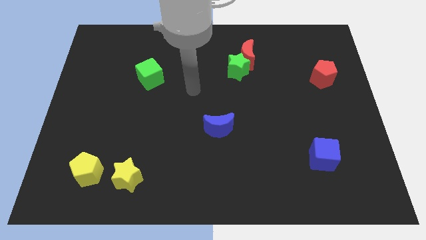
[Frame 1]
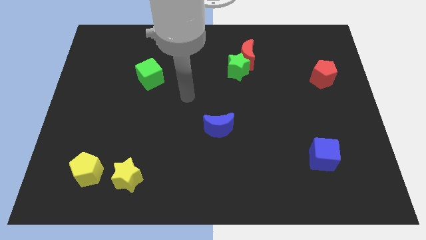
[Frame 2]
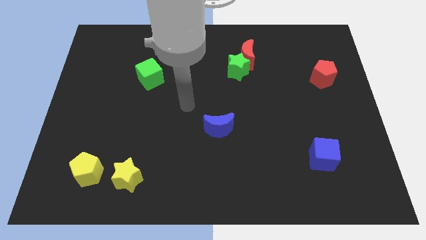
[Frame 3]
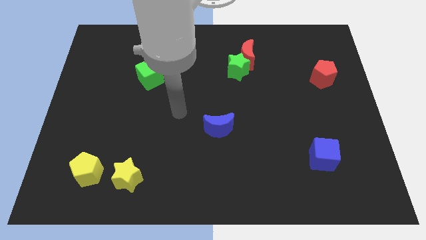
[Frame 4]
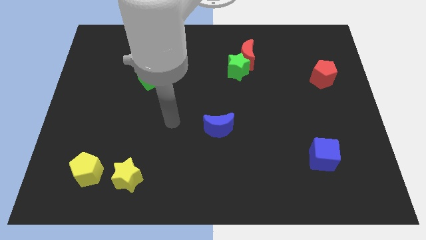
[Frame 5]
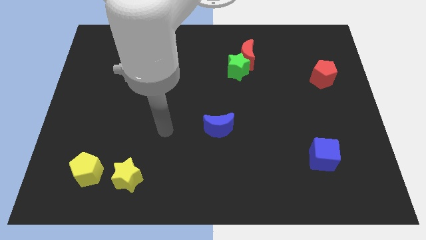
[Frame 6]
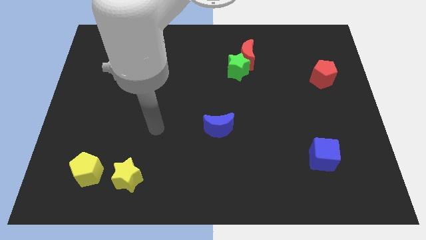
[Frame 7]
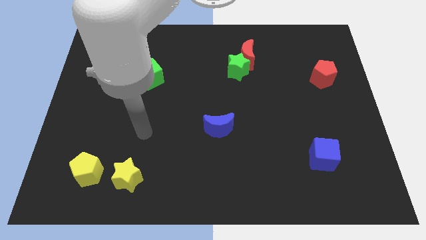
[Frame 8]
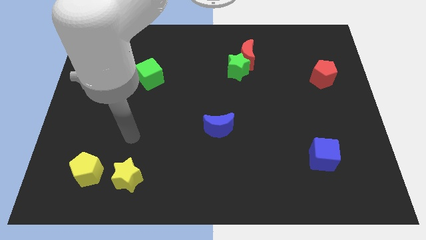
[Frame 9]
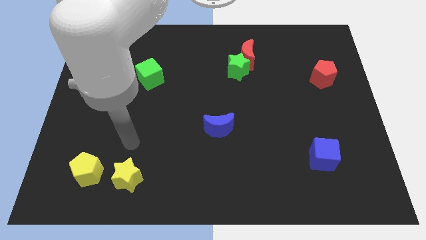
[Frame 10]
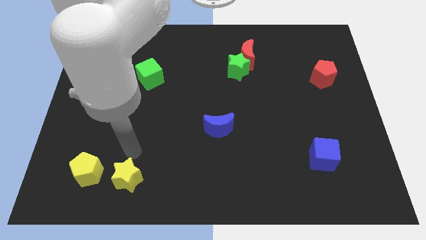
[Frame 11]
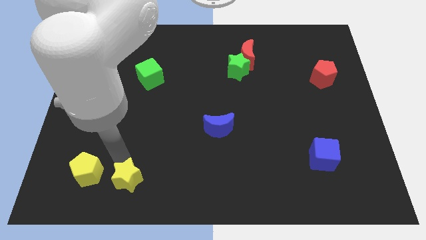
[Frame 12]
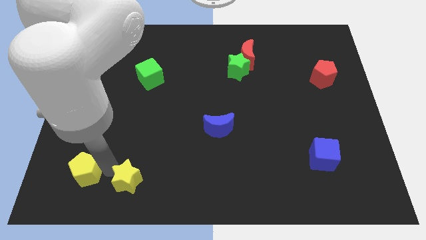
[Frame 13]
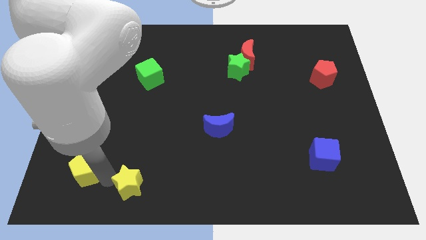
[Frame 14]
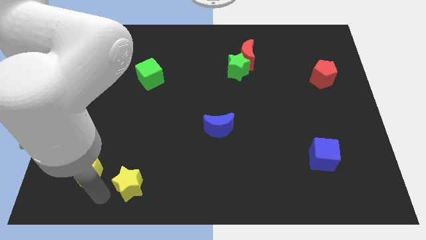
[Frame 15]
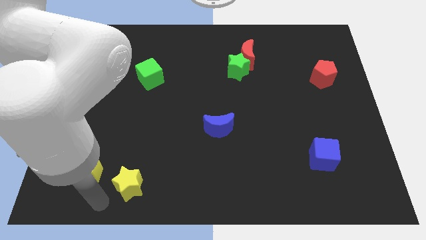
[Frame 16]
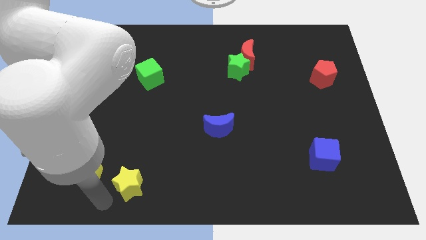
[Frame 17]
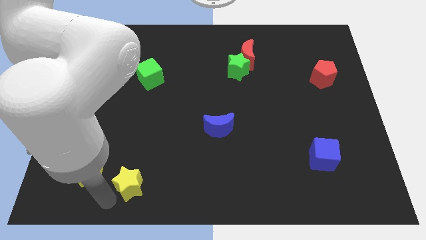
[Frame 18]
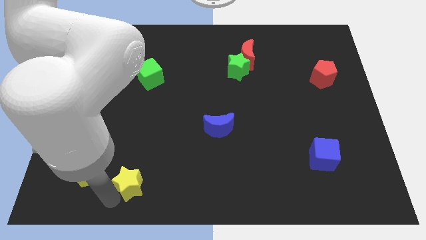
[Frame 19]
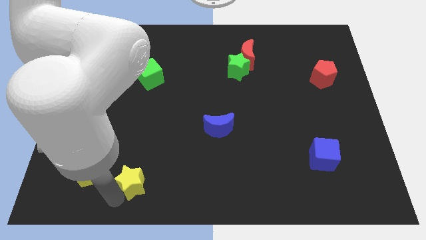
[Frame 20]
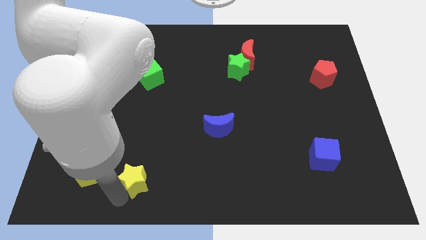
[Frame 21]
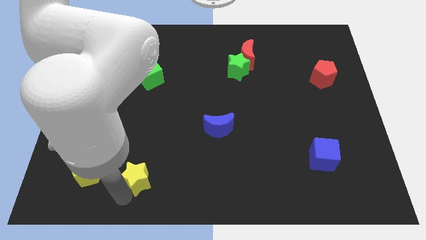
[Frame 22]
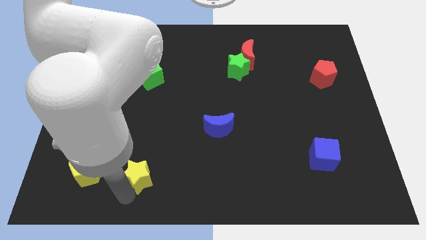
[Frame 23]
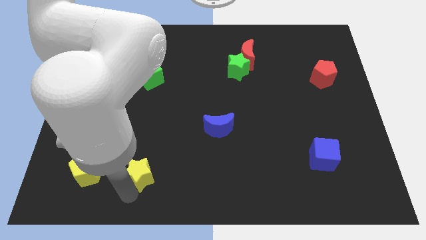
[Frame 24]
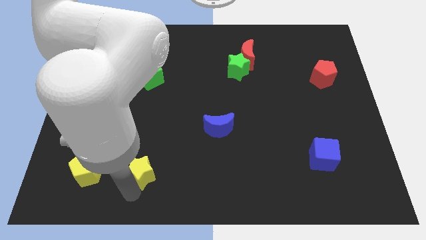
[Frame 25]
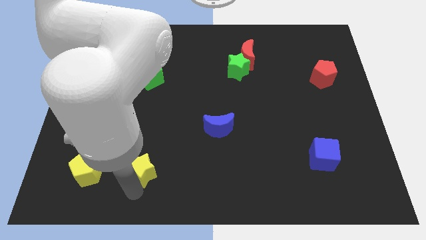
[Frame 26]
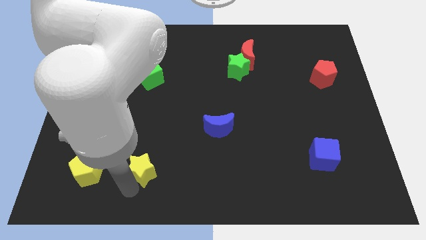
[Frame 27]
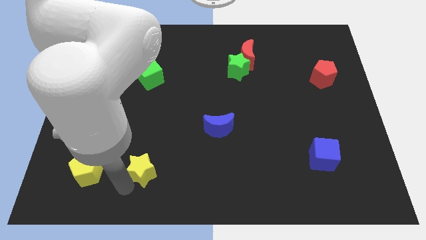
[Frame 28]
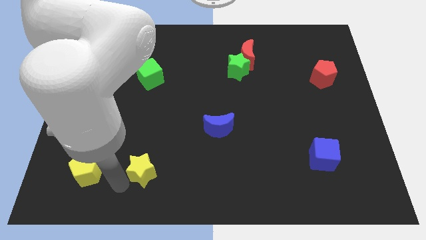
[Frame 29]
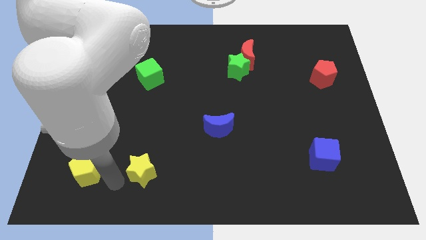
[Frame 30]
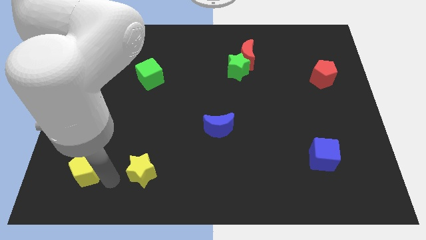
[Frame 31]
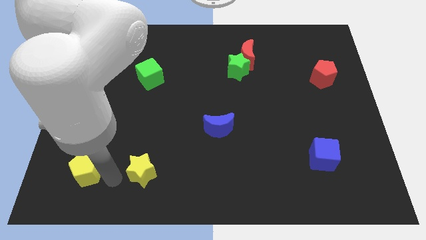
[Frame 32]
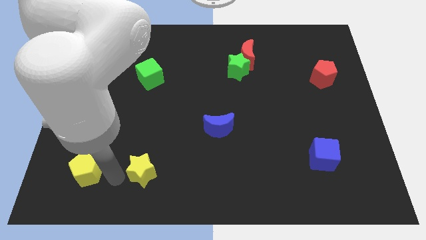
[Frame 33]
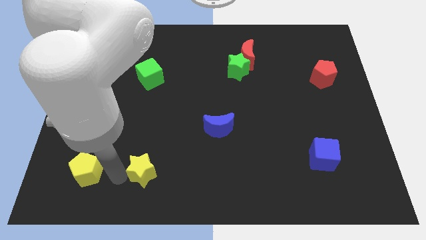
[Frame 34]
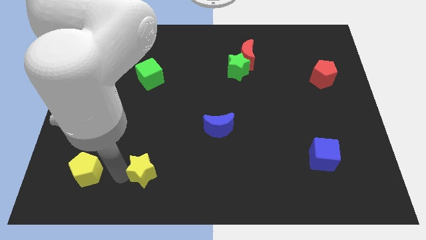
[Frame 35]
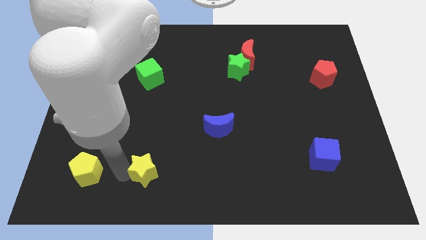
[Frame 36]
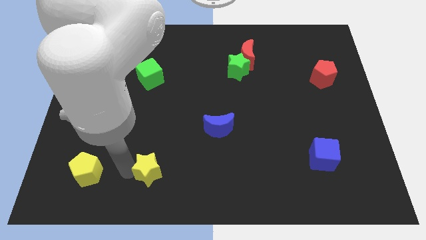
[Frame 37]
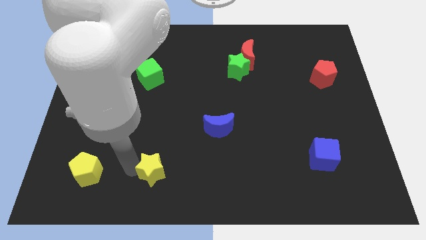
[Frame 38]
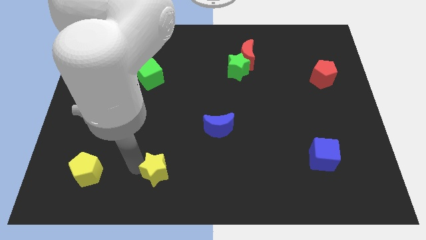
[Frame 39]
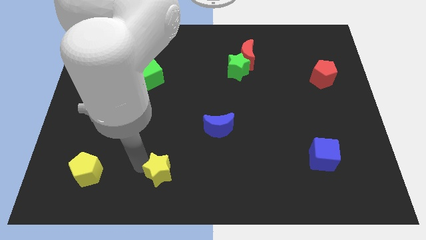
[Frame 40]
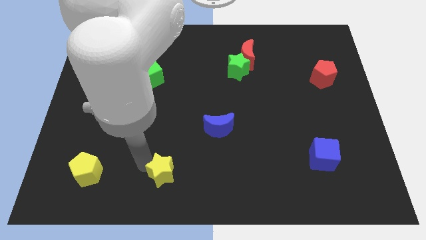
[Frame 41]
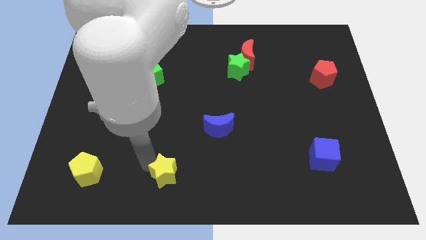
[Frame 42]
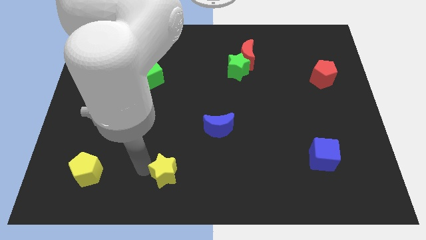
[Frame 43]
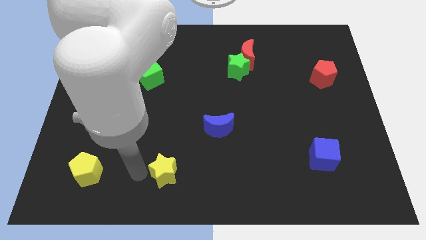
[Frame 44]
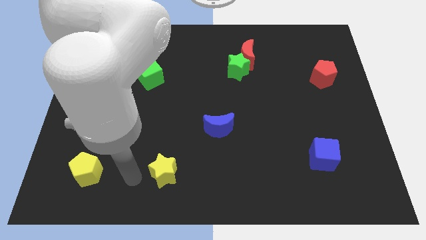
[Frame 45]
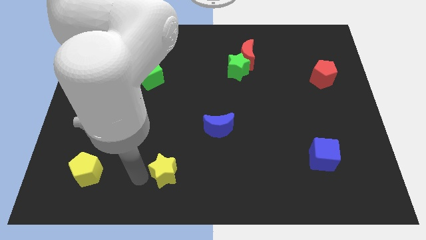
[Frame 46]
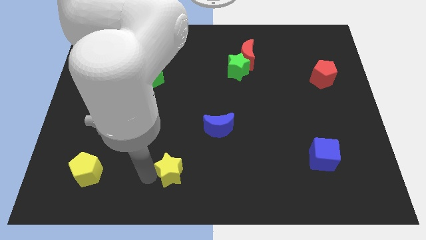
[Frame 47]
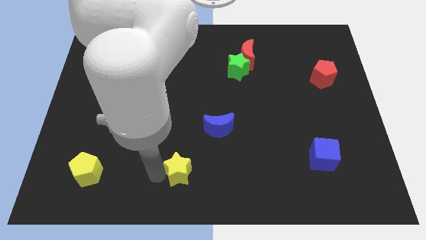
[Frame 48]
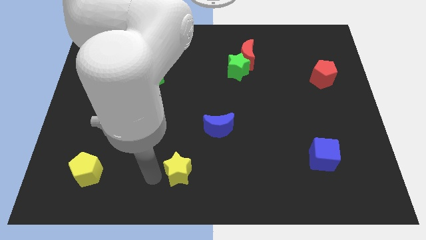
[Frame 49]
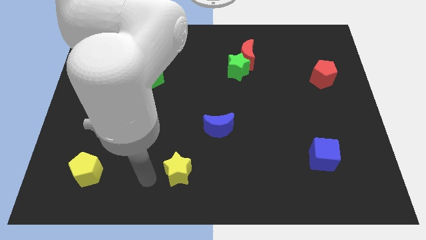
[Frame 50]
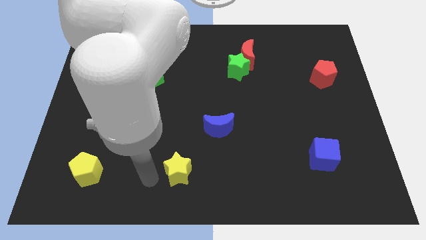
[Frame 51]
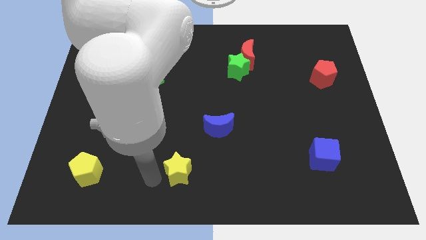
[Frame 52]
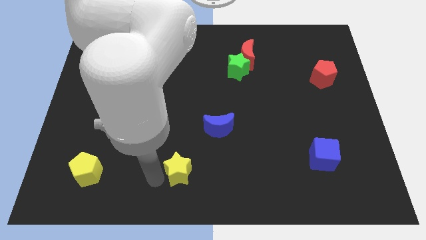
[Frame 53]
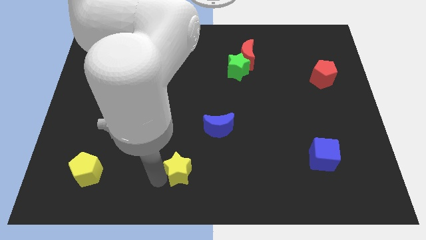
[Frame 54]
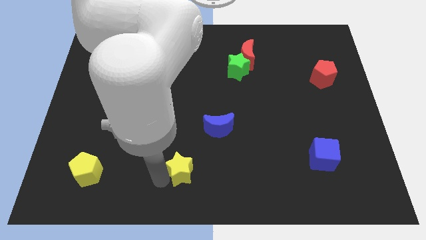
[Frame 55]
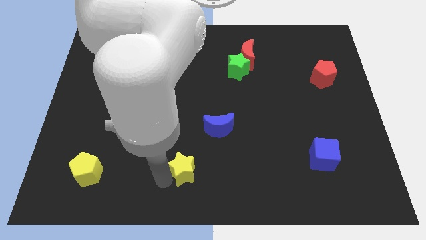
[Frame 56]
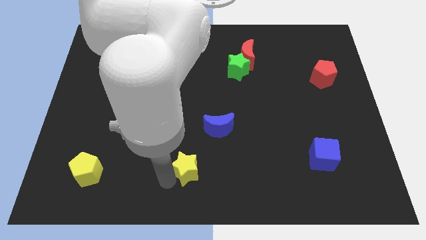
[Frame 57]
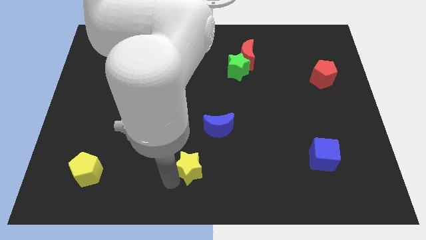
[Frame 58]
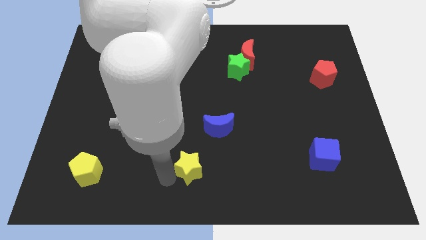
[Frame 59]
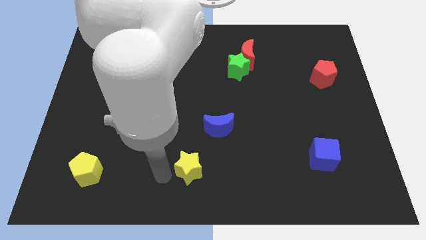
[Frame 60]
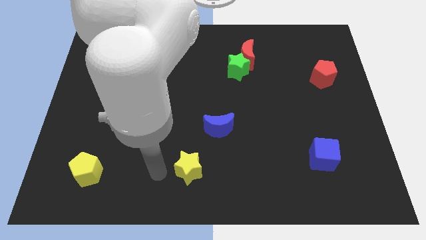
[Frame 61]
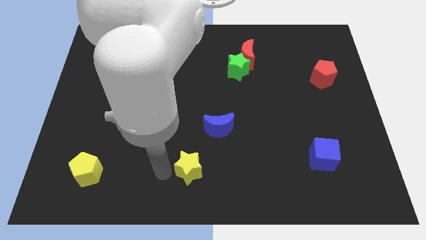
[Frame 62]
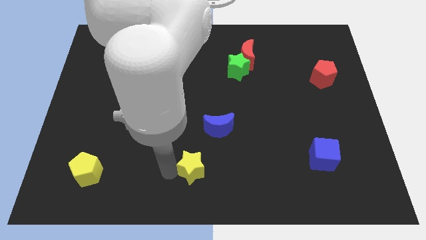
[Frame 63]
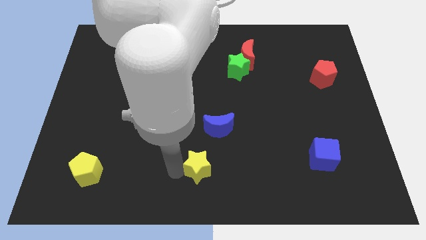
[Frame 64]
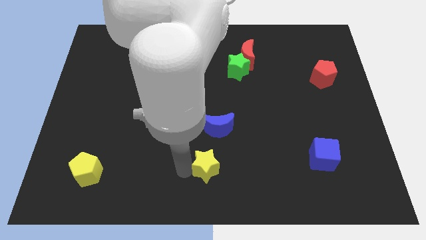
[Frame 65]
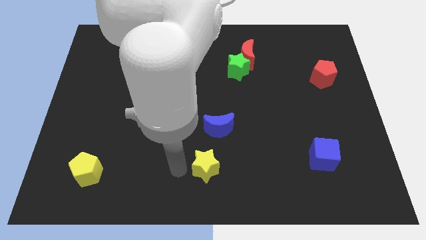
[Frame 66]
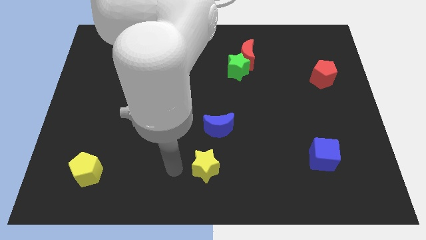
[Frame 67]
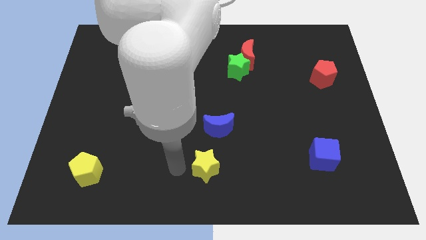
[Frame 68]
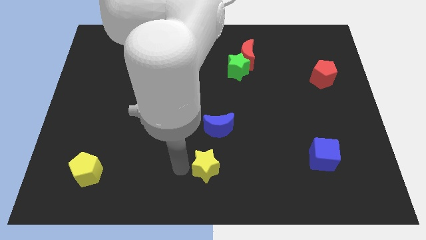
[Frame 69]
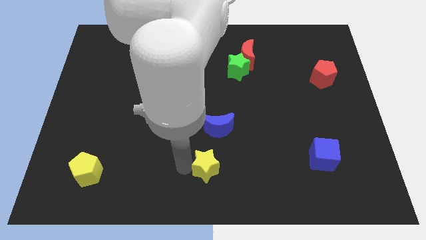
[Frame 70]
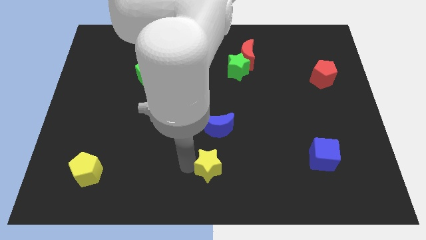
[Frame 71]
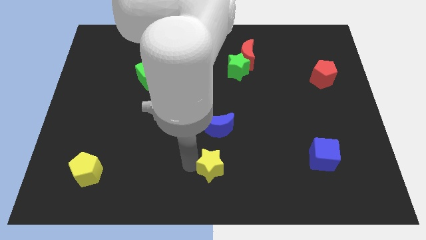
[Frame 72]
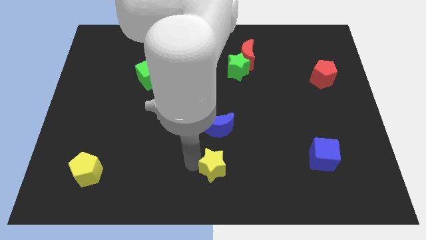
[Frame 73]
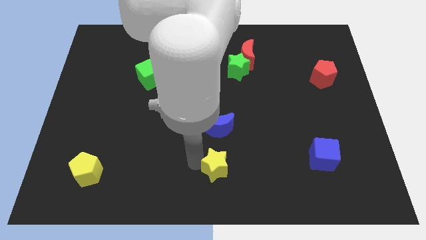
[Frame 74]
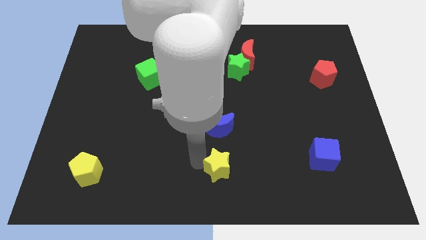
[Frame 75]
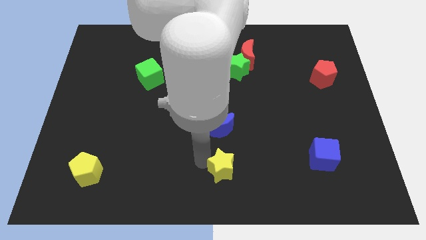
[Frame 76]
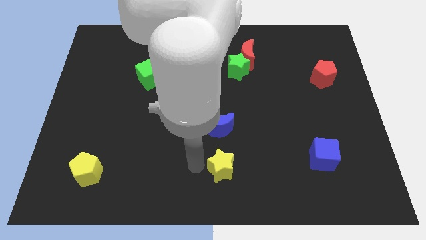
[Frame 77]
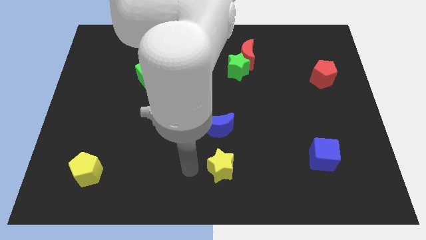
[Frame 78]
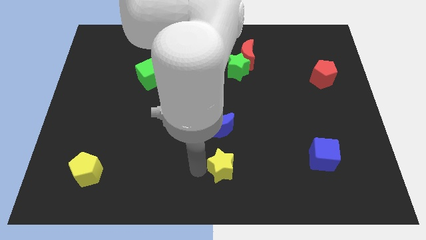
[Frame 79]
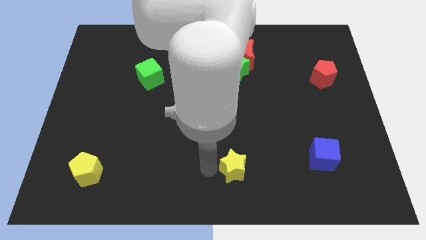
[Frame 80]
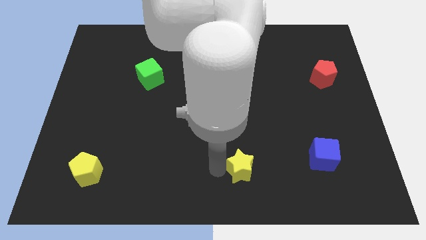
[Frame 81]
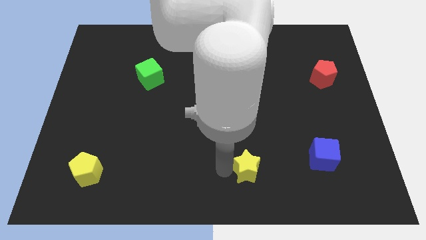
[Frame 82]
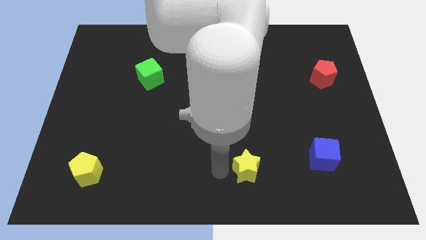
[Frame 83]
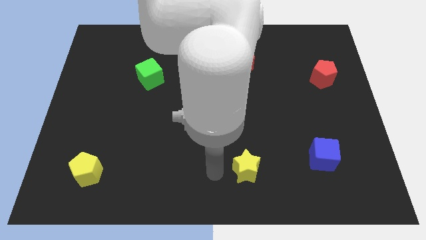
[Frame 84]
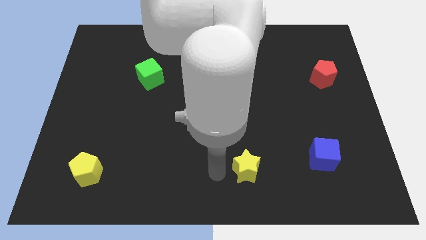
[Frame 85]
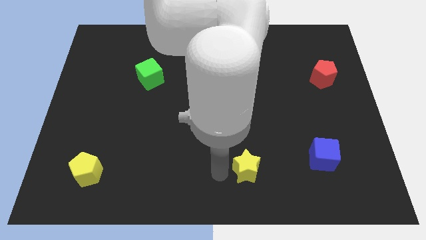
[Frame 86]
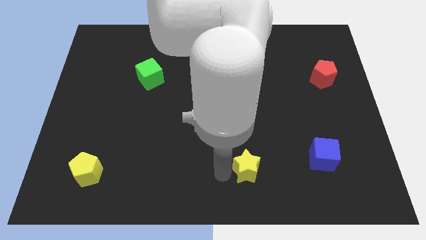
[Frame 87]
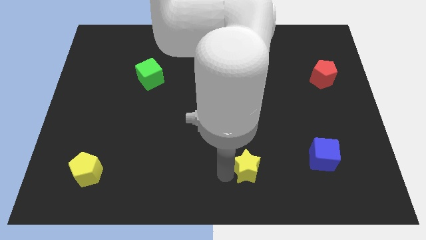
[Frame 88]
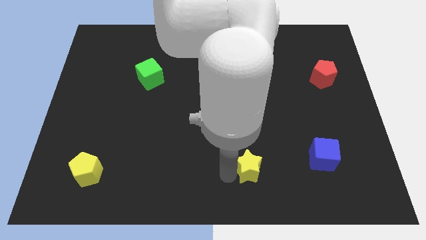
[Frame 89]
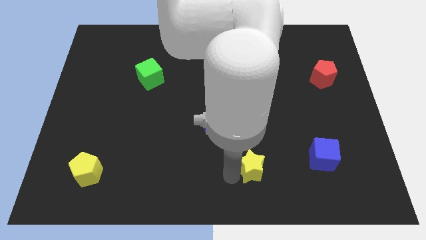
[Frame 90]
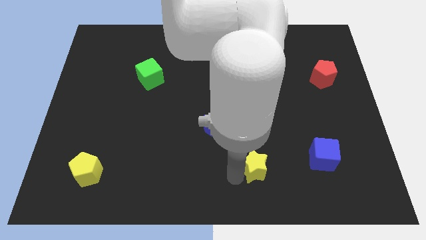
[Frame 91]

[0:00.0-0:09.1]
move the yellow star to the left of the blue cube
